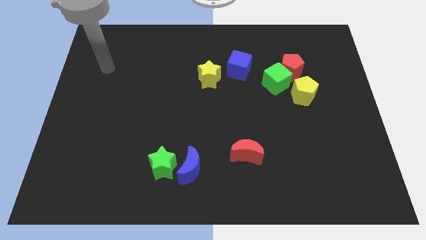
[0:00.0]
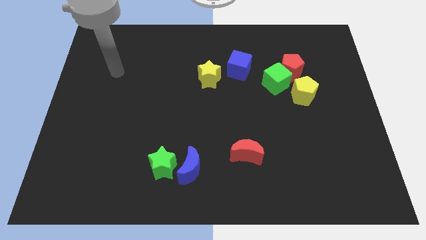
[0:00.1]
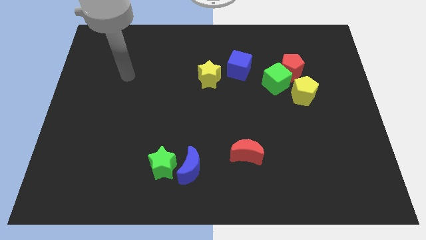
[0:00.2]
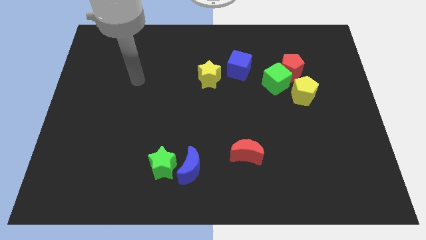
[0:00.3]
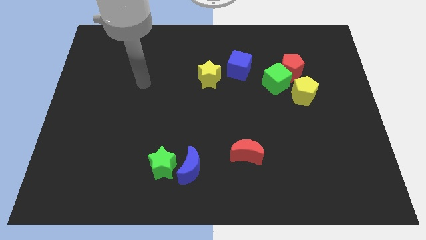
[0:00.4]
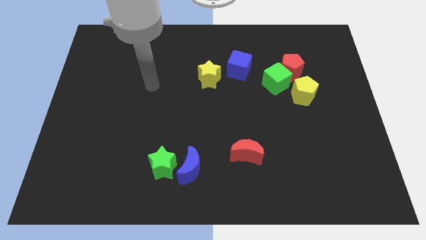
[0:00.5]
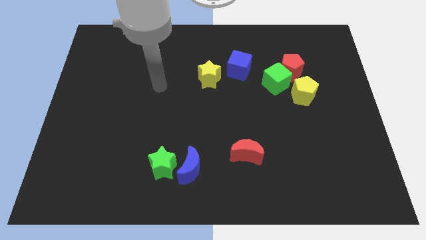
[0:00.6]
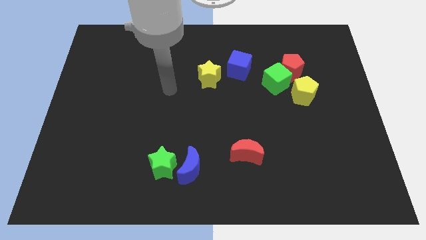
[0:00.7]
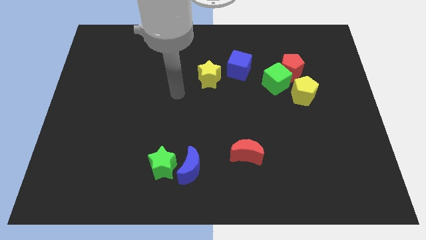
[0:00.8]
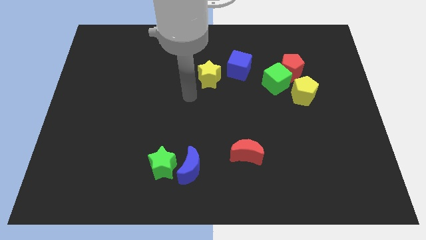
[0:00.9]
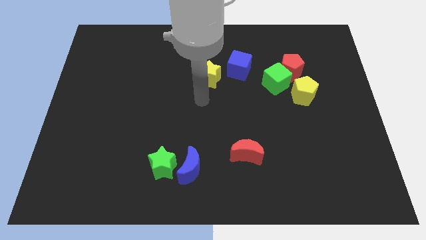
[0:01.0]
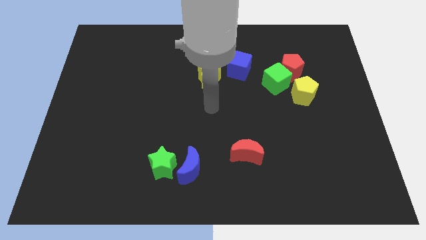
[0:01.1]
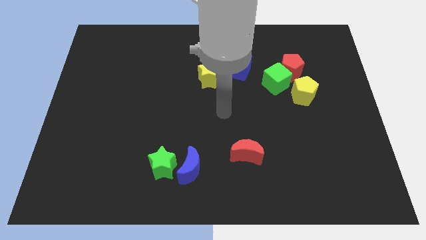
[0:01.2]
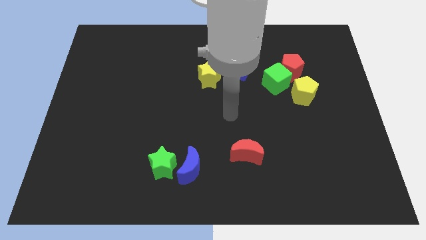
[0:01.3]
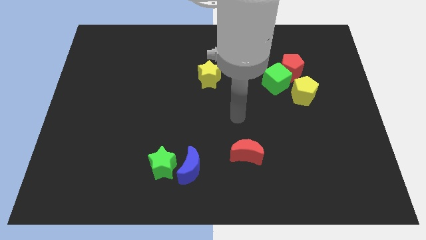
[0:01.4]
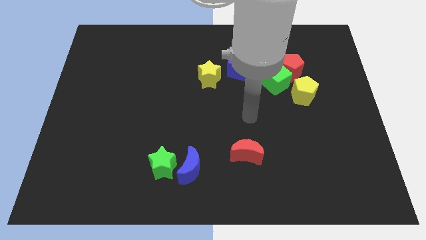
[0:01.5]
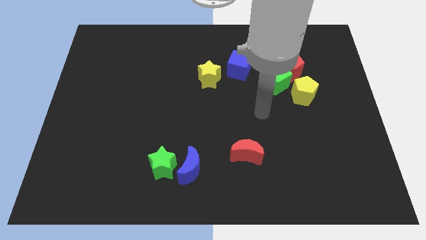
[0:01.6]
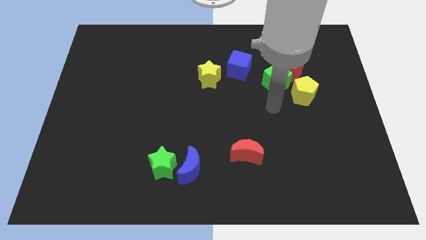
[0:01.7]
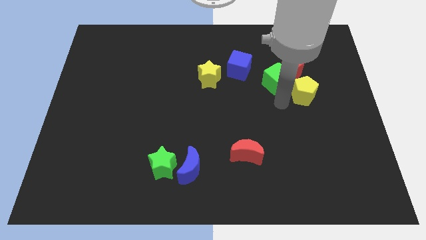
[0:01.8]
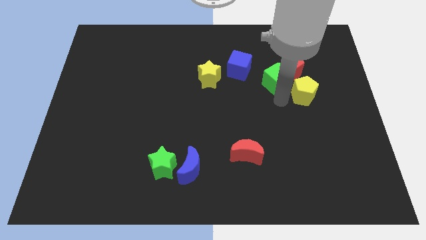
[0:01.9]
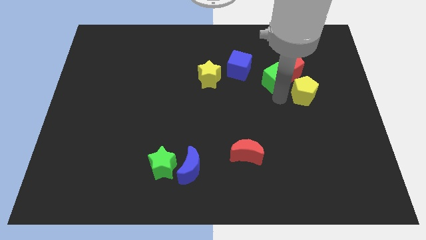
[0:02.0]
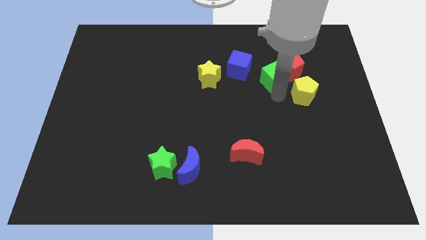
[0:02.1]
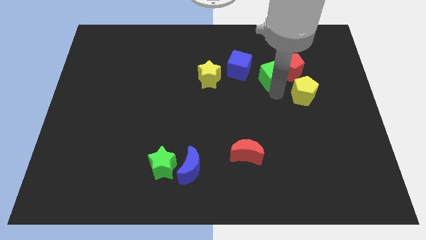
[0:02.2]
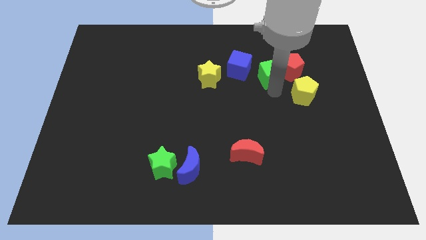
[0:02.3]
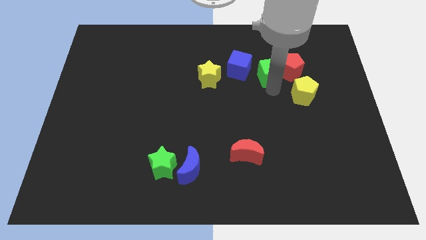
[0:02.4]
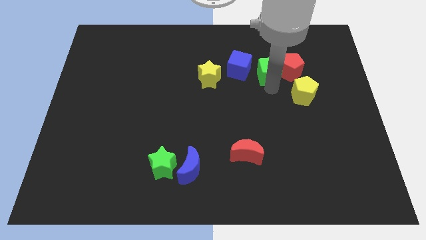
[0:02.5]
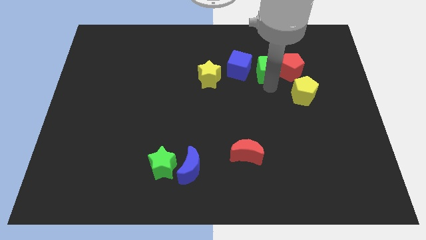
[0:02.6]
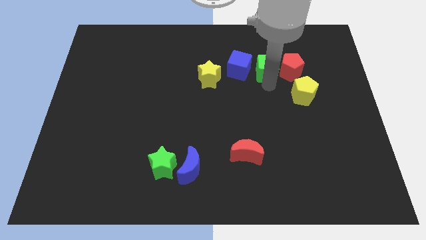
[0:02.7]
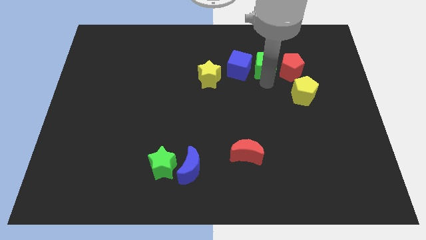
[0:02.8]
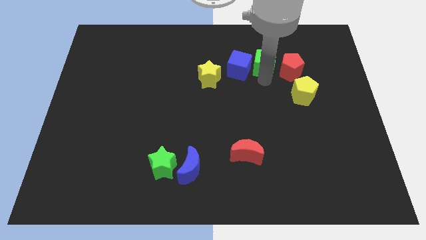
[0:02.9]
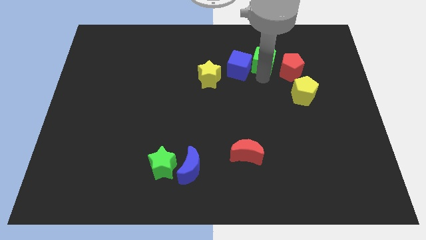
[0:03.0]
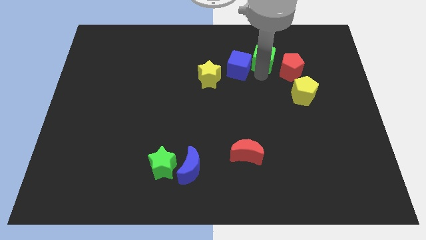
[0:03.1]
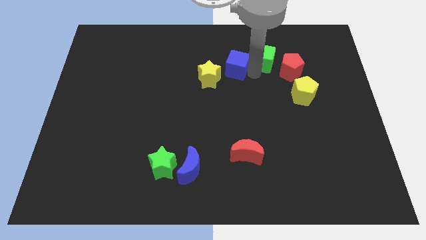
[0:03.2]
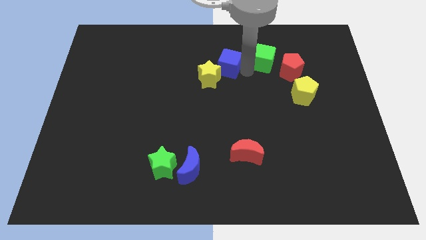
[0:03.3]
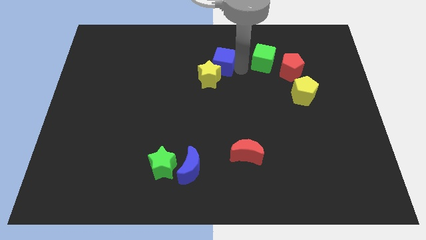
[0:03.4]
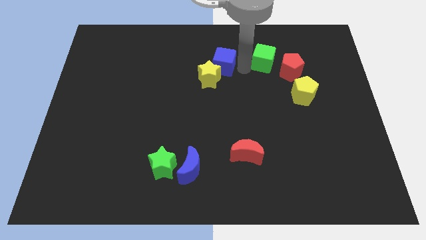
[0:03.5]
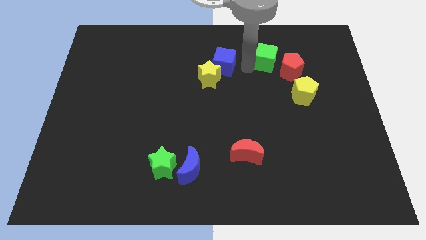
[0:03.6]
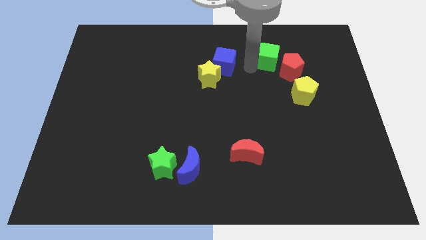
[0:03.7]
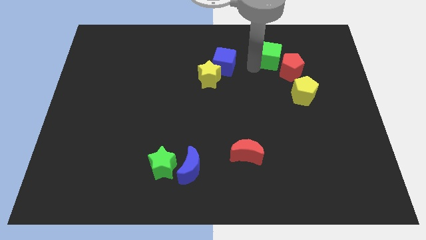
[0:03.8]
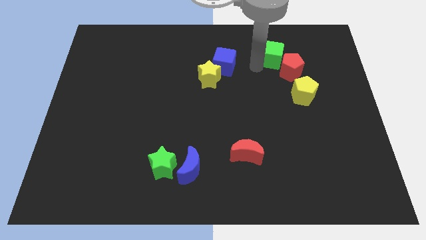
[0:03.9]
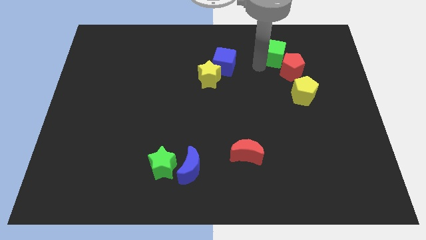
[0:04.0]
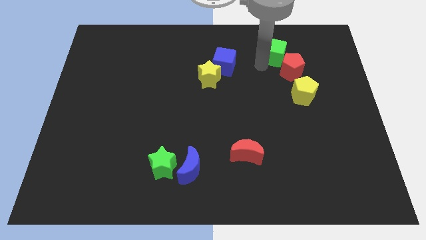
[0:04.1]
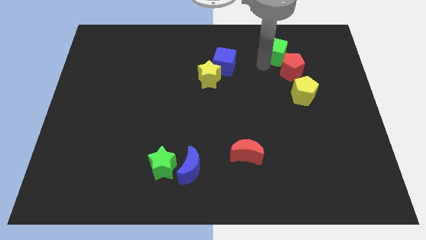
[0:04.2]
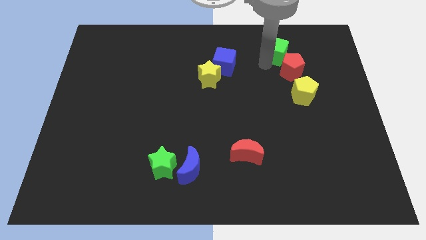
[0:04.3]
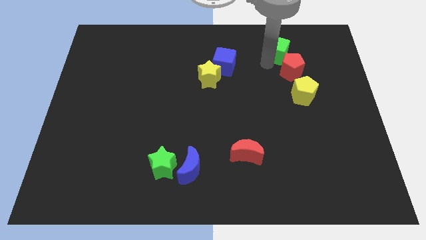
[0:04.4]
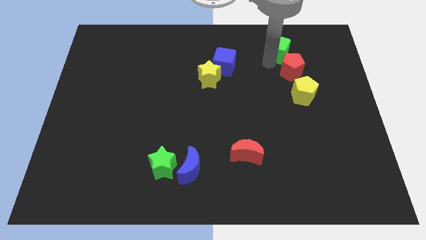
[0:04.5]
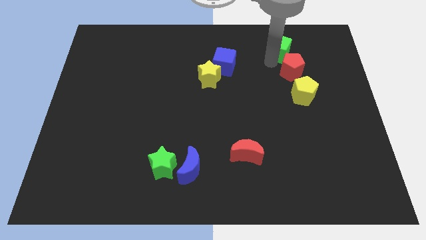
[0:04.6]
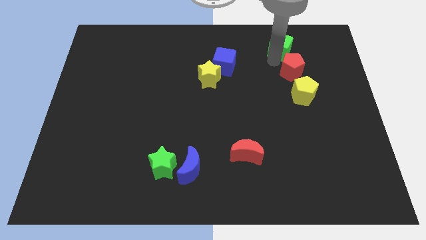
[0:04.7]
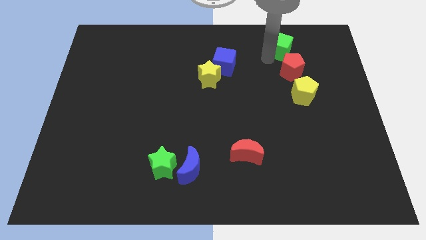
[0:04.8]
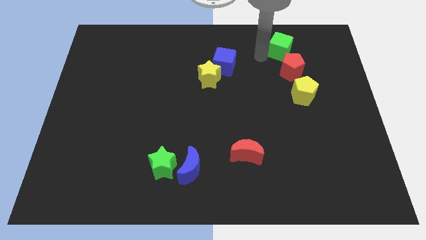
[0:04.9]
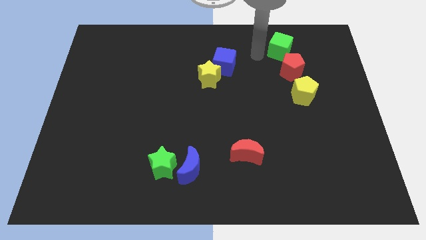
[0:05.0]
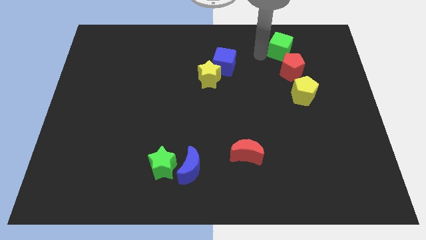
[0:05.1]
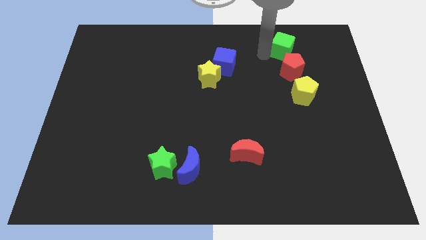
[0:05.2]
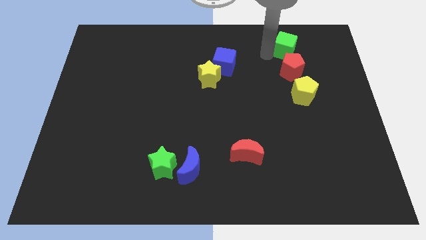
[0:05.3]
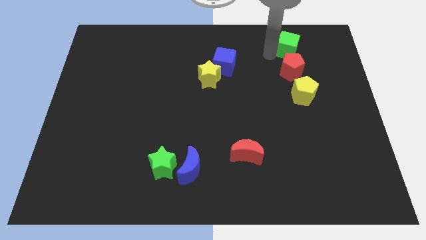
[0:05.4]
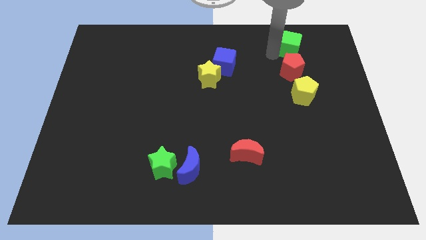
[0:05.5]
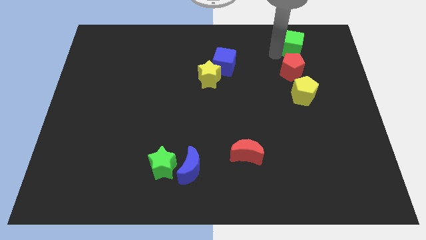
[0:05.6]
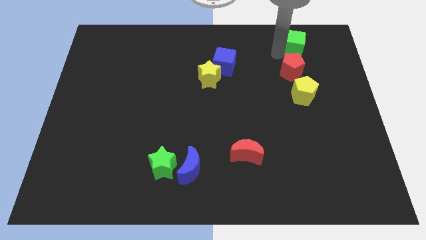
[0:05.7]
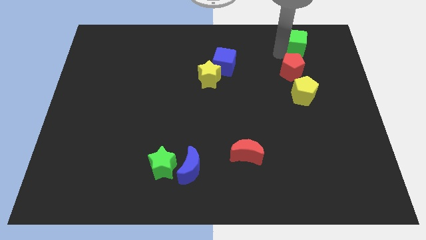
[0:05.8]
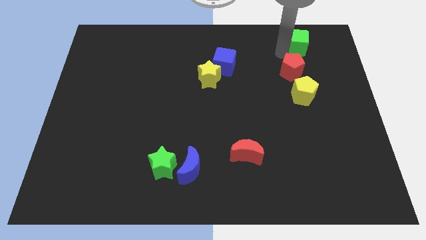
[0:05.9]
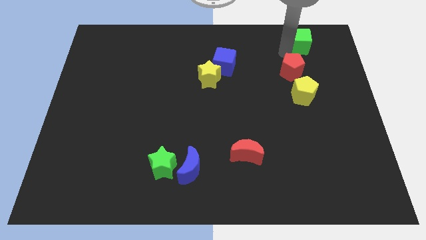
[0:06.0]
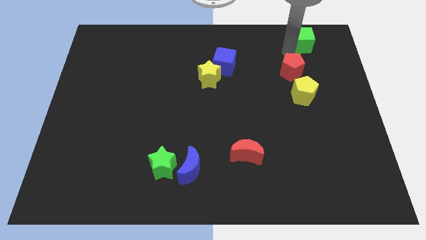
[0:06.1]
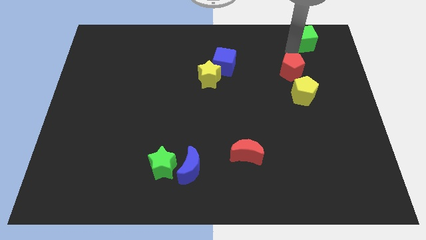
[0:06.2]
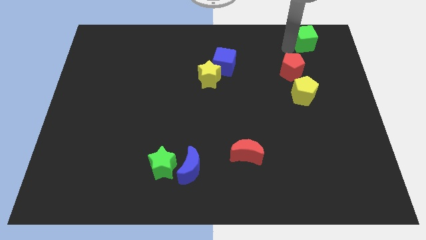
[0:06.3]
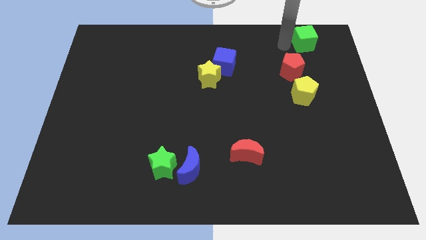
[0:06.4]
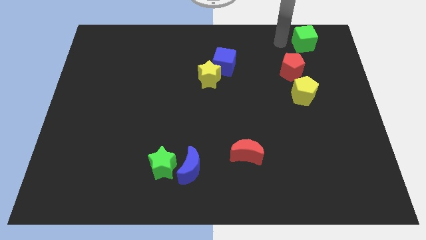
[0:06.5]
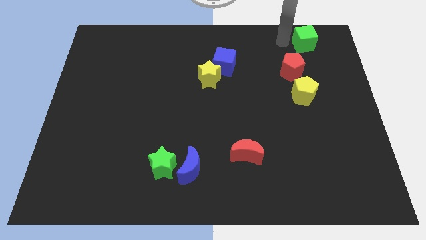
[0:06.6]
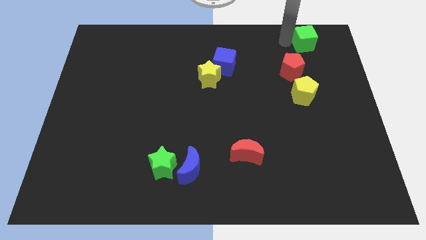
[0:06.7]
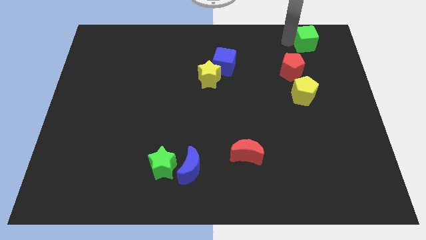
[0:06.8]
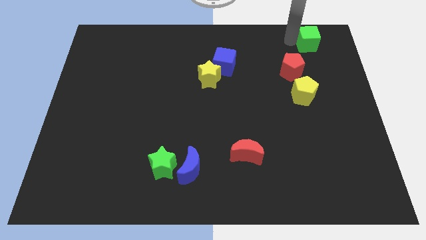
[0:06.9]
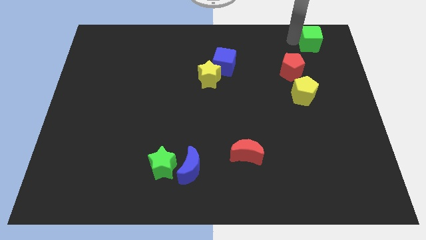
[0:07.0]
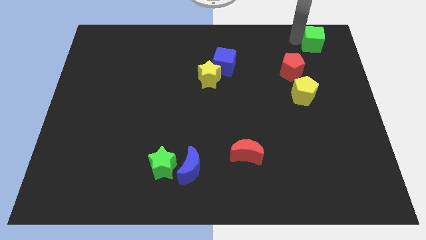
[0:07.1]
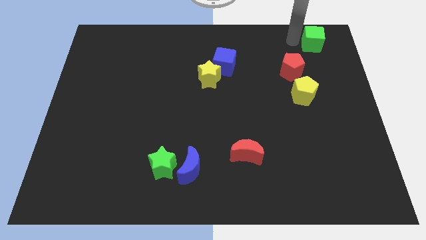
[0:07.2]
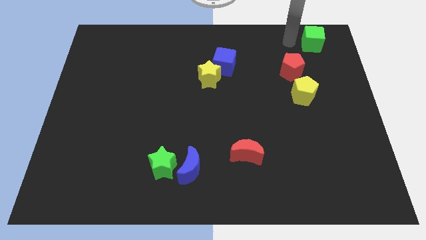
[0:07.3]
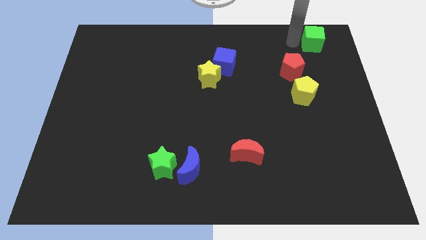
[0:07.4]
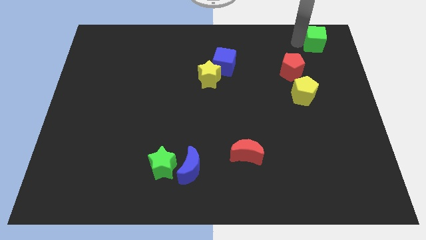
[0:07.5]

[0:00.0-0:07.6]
put the green cube to the top right of the board

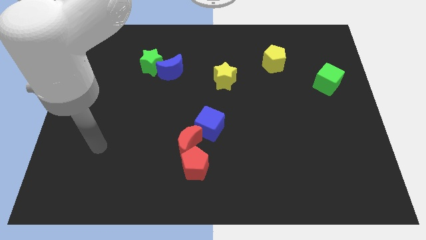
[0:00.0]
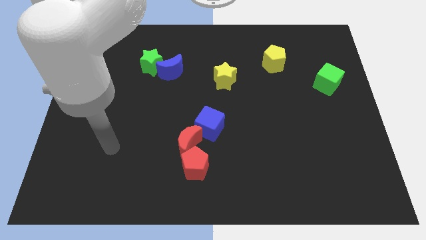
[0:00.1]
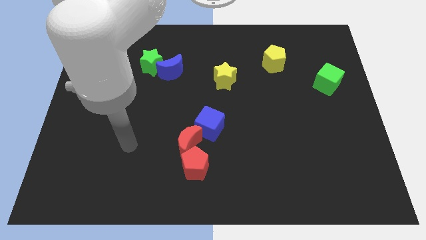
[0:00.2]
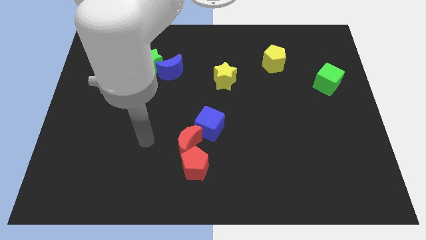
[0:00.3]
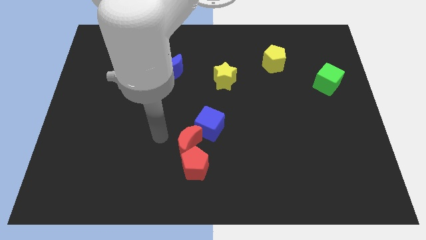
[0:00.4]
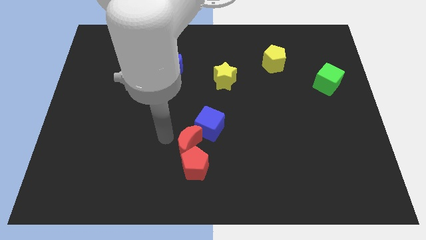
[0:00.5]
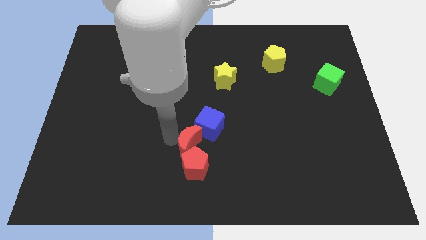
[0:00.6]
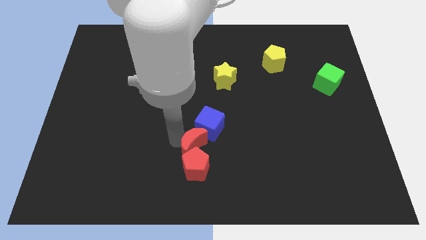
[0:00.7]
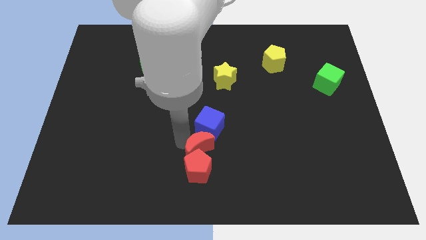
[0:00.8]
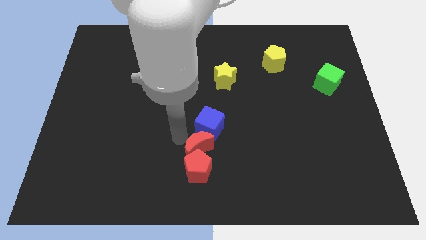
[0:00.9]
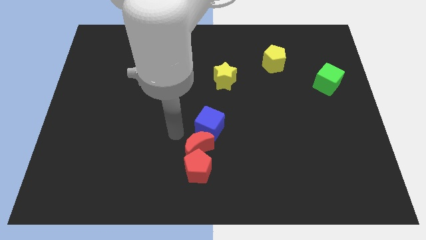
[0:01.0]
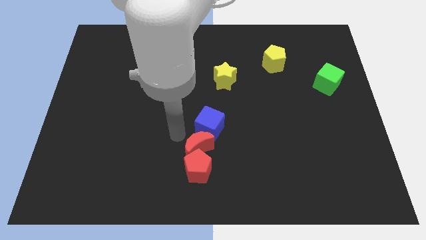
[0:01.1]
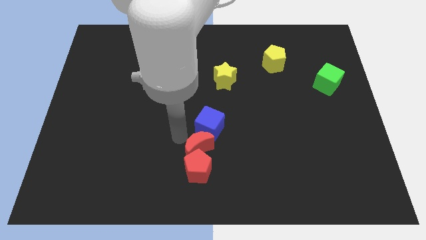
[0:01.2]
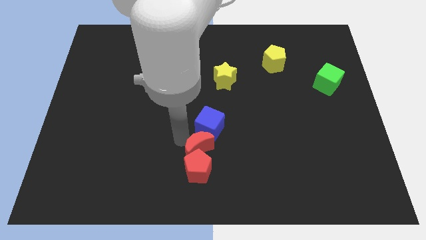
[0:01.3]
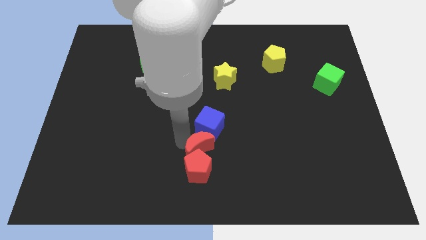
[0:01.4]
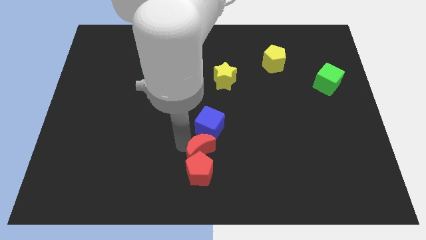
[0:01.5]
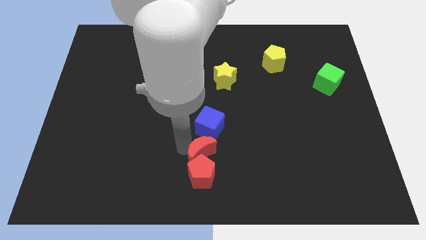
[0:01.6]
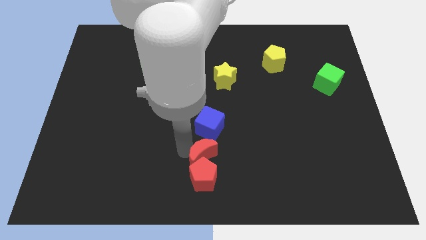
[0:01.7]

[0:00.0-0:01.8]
put the red moon to the bottom
